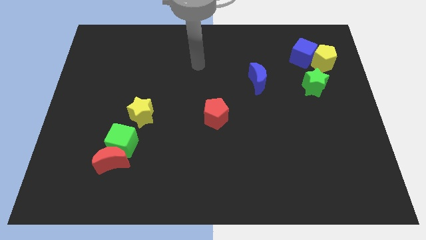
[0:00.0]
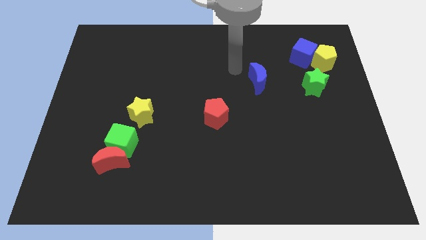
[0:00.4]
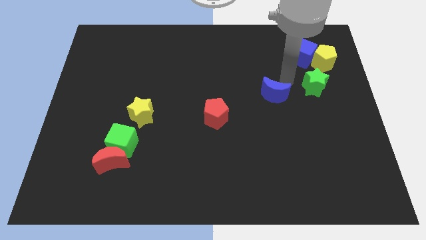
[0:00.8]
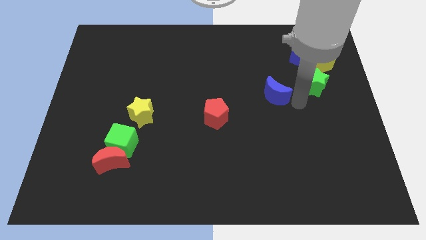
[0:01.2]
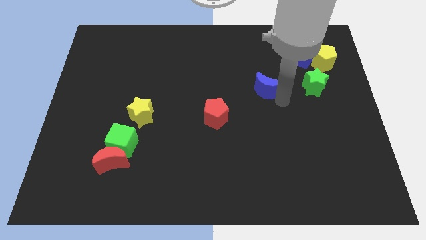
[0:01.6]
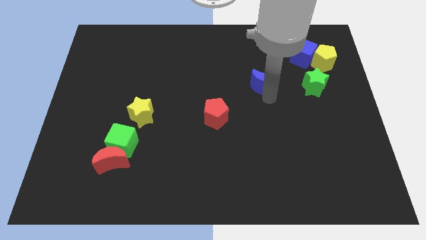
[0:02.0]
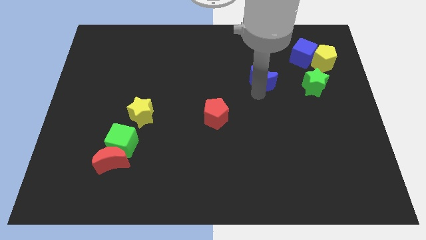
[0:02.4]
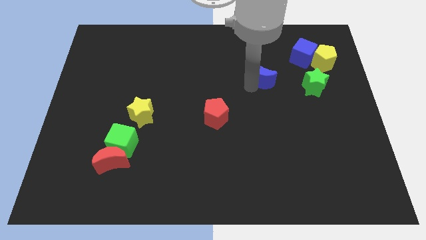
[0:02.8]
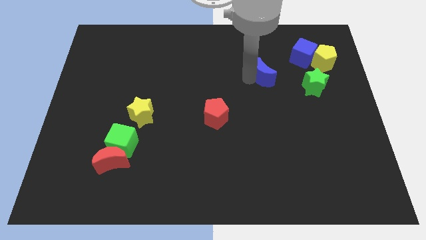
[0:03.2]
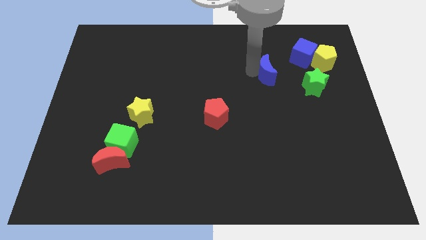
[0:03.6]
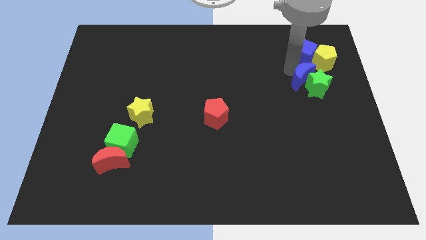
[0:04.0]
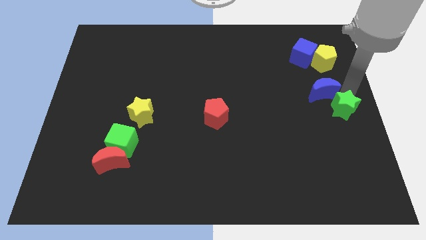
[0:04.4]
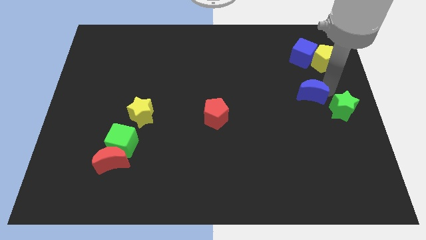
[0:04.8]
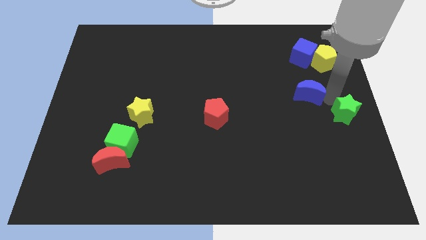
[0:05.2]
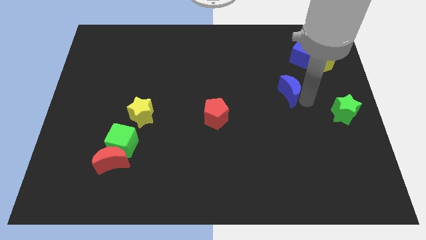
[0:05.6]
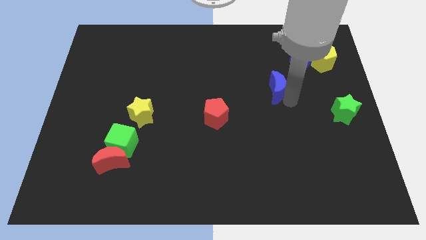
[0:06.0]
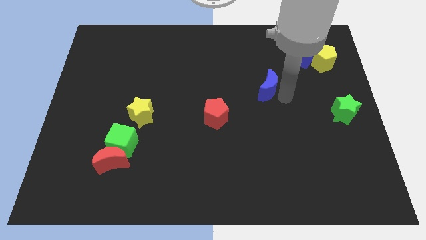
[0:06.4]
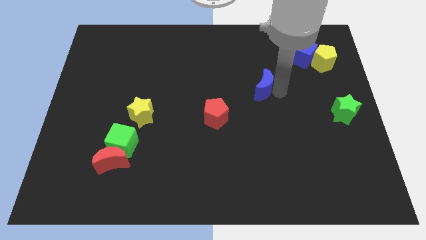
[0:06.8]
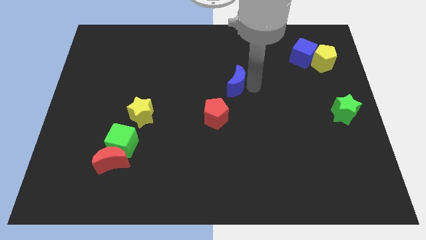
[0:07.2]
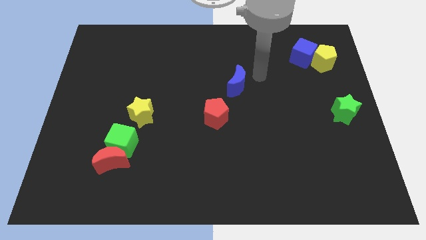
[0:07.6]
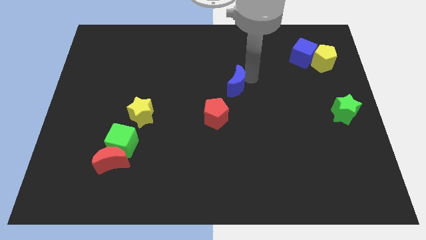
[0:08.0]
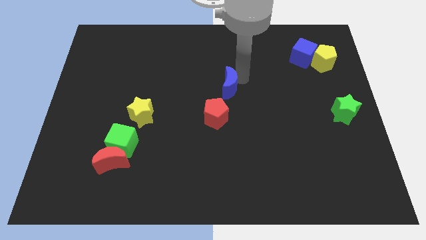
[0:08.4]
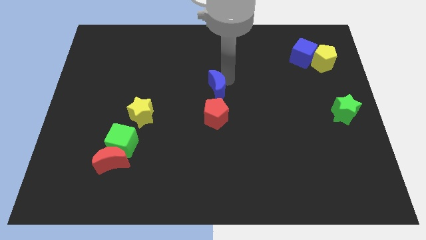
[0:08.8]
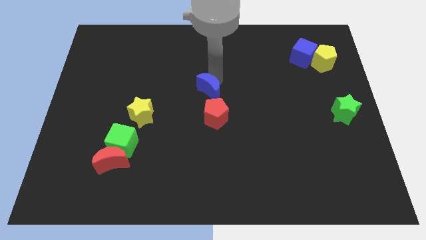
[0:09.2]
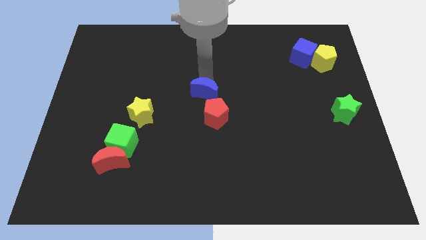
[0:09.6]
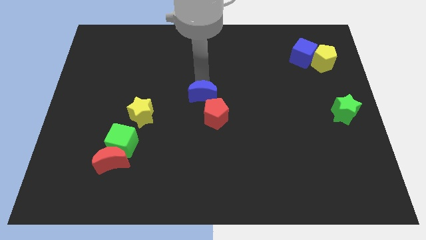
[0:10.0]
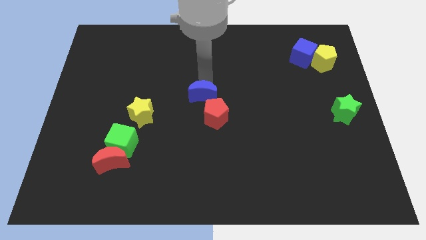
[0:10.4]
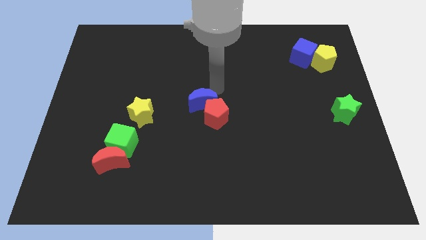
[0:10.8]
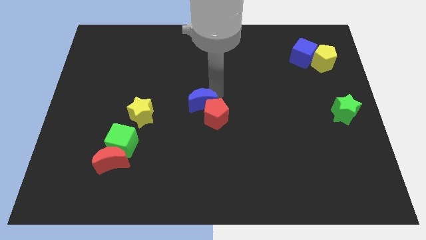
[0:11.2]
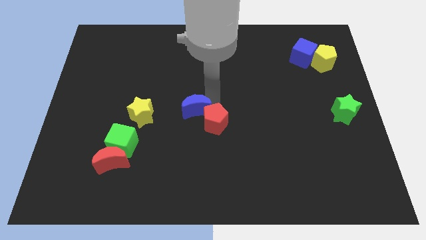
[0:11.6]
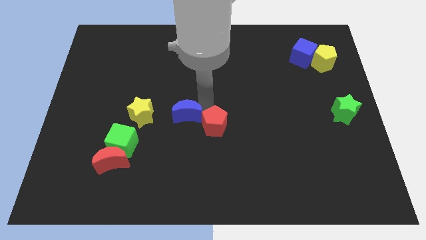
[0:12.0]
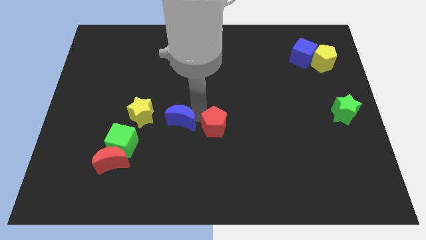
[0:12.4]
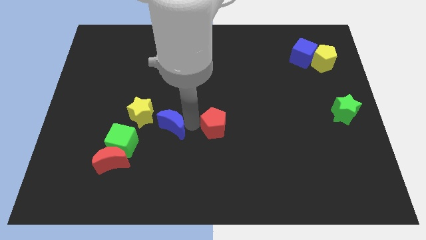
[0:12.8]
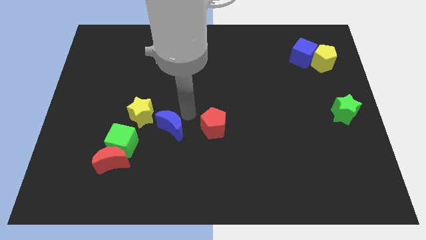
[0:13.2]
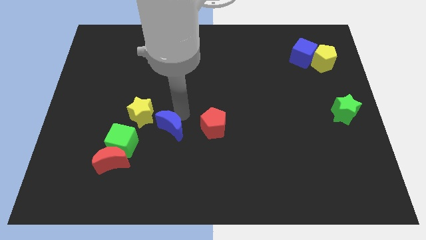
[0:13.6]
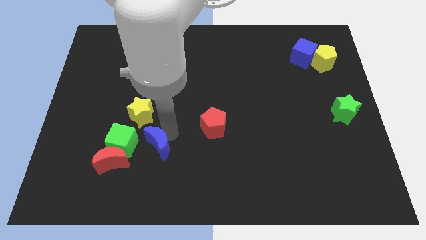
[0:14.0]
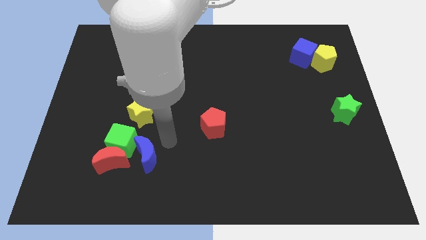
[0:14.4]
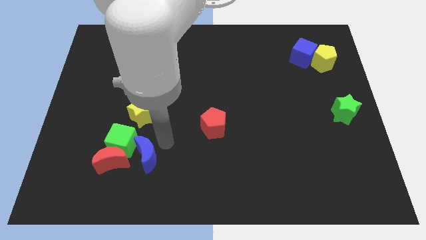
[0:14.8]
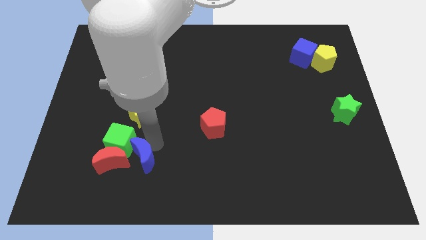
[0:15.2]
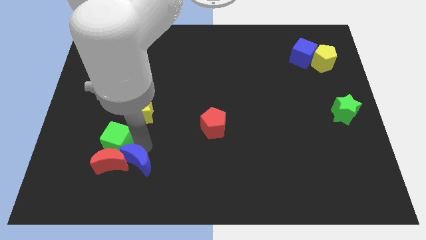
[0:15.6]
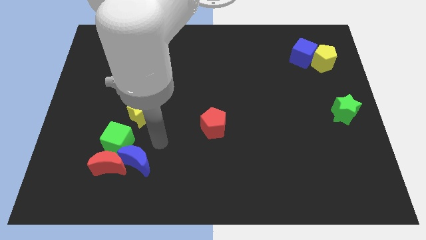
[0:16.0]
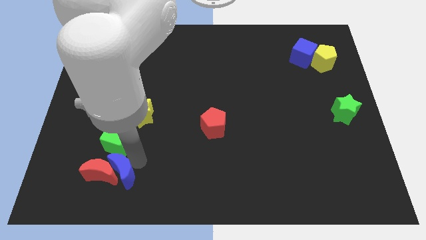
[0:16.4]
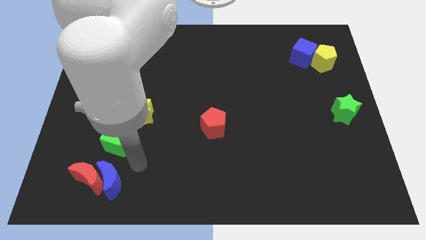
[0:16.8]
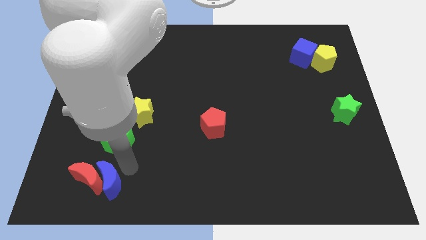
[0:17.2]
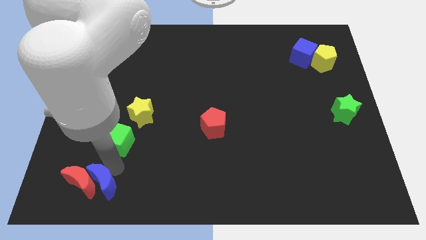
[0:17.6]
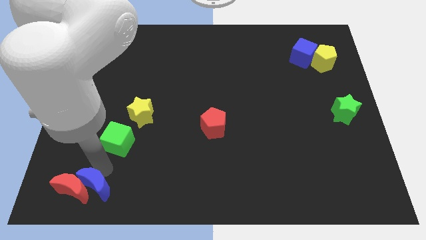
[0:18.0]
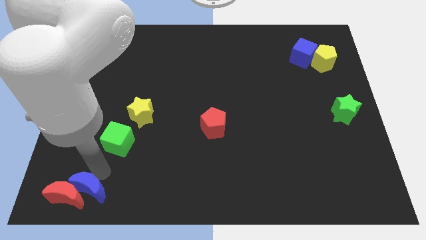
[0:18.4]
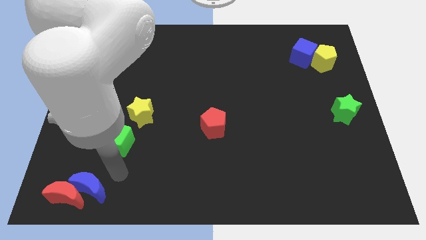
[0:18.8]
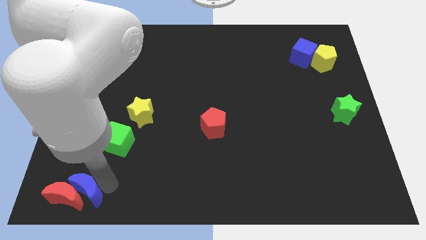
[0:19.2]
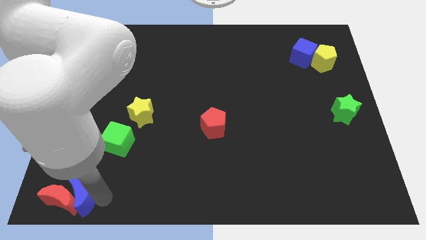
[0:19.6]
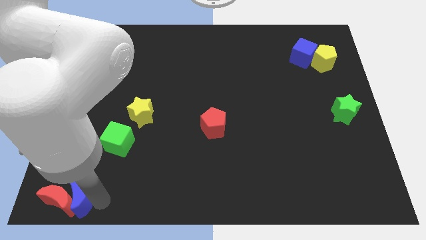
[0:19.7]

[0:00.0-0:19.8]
move the blue moon to the bottom left

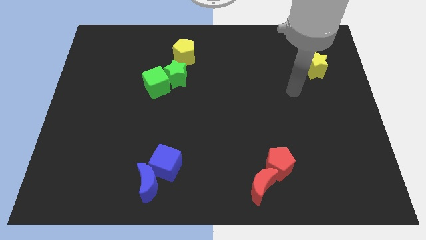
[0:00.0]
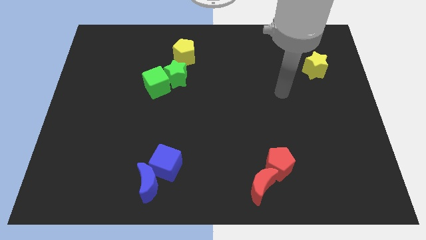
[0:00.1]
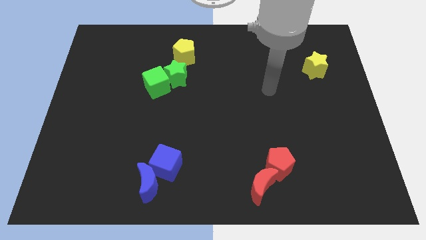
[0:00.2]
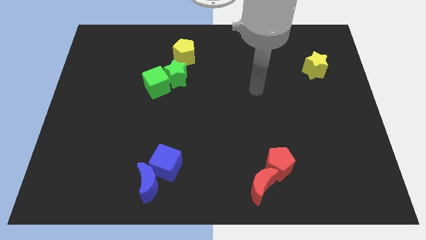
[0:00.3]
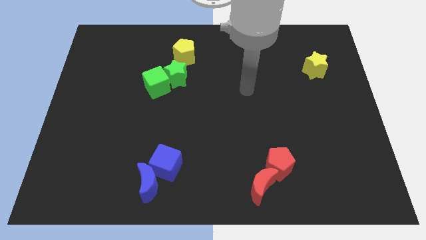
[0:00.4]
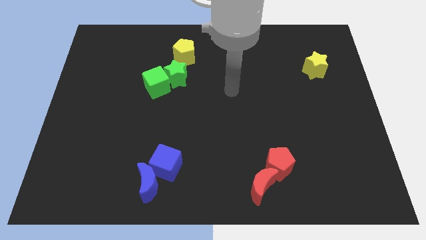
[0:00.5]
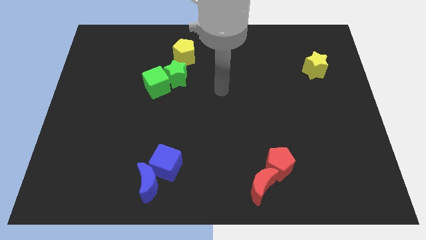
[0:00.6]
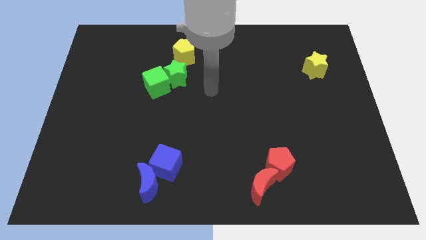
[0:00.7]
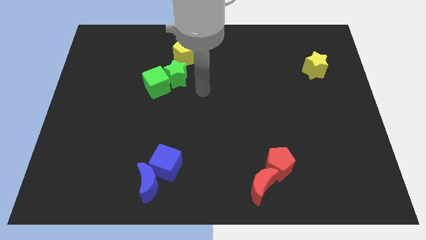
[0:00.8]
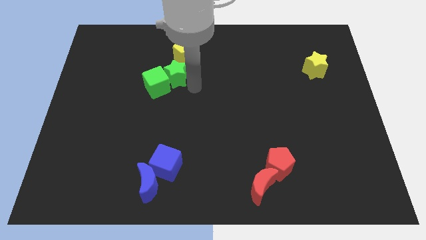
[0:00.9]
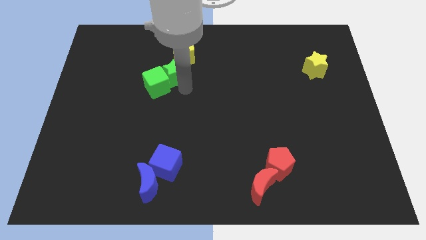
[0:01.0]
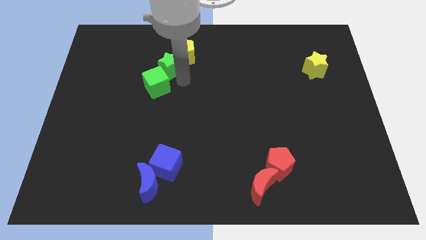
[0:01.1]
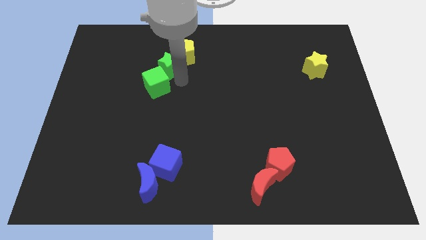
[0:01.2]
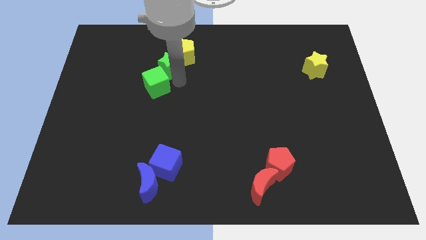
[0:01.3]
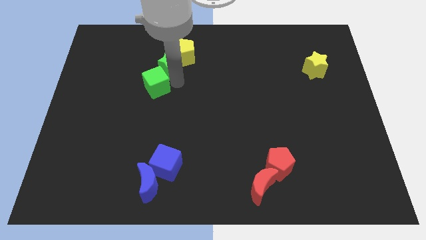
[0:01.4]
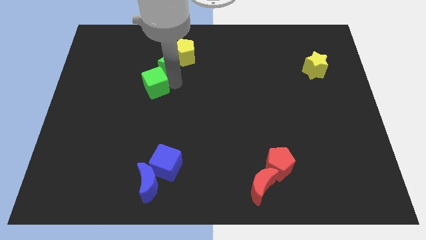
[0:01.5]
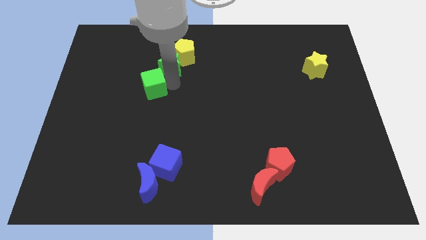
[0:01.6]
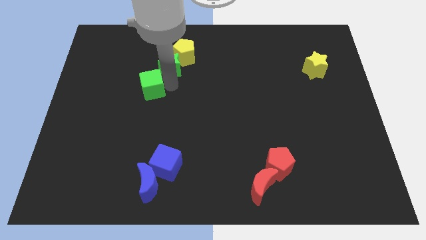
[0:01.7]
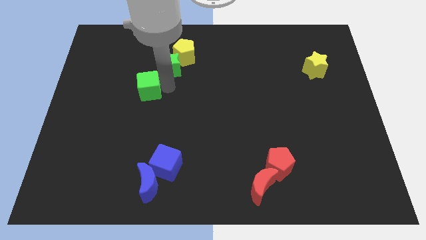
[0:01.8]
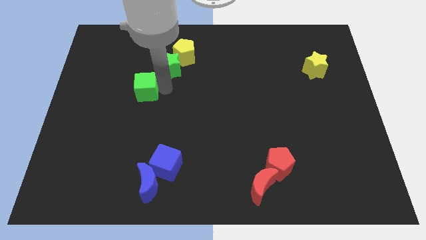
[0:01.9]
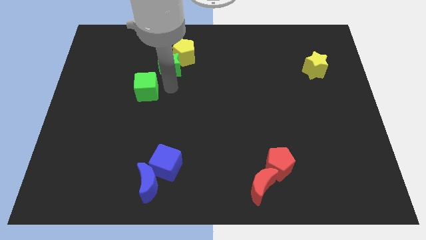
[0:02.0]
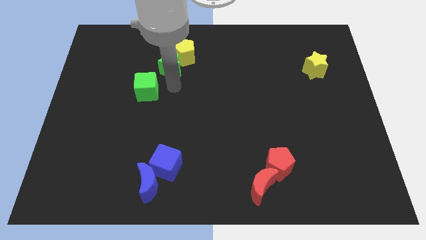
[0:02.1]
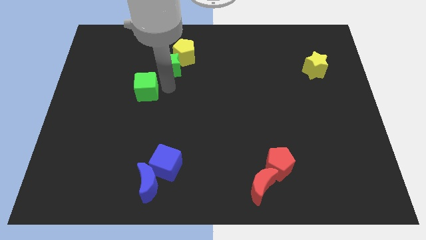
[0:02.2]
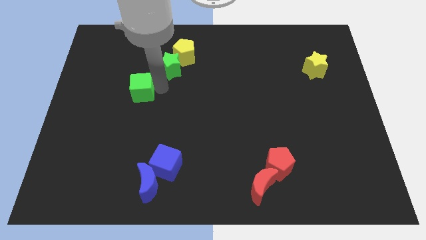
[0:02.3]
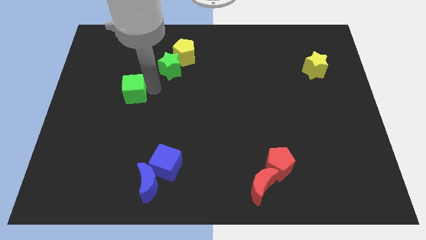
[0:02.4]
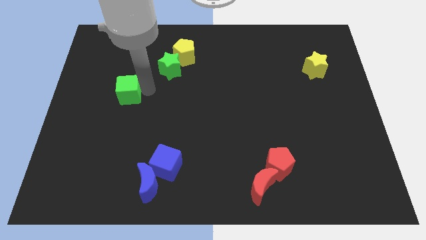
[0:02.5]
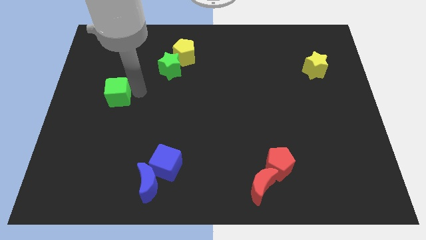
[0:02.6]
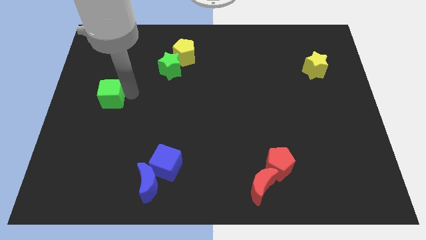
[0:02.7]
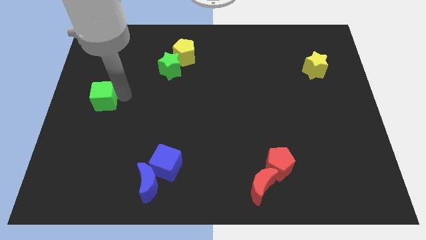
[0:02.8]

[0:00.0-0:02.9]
push the green cube to the left side
